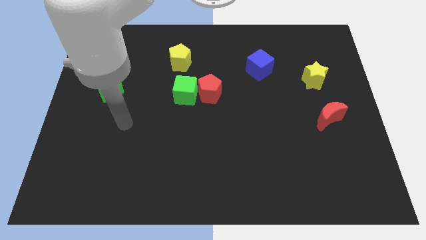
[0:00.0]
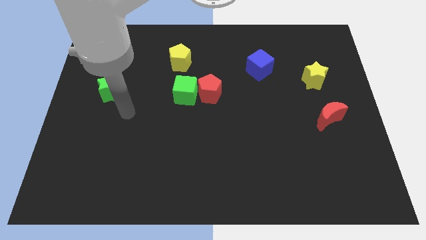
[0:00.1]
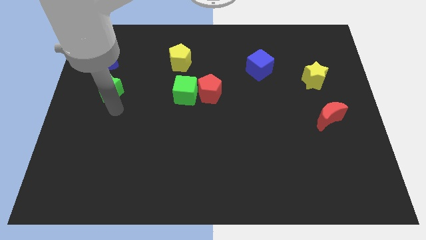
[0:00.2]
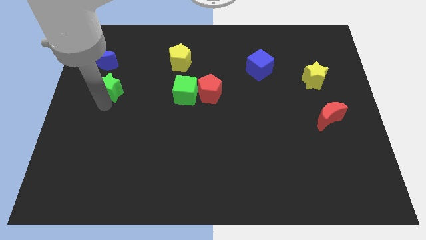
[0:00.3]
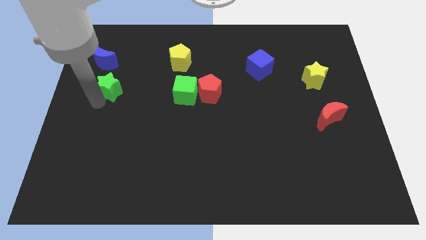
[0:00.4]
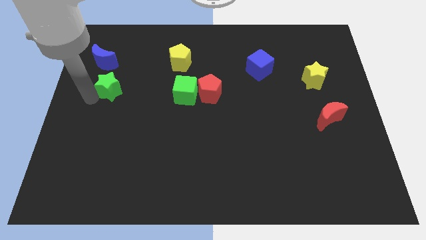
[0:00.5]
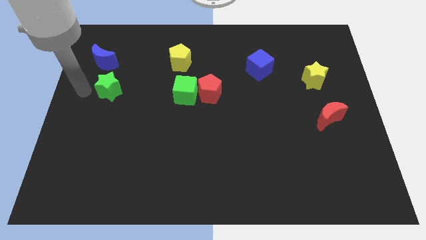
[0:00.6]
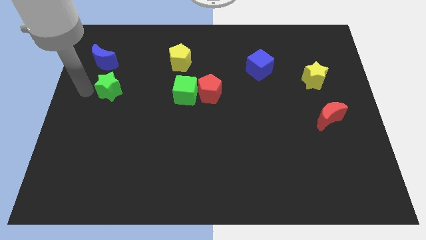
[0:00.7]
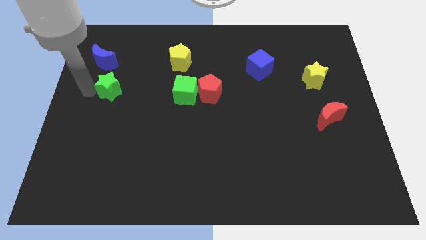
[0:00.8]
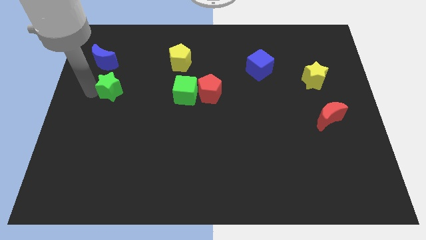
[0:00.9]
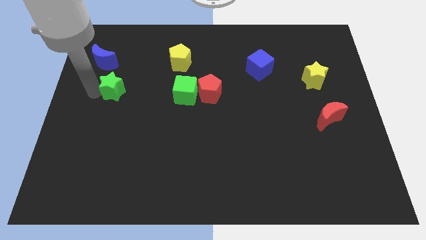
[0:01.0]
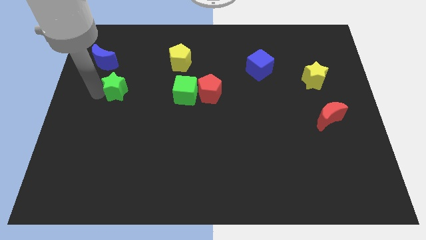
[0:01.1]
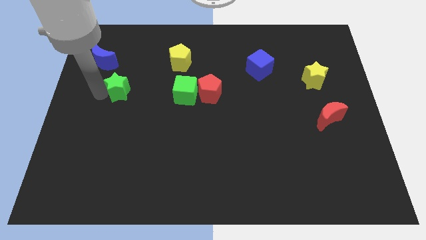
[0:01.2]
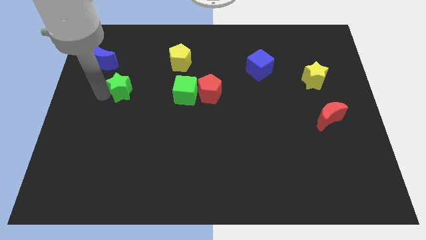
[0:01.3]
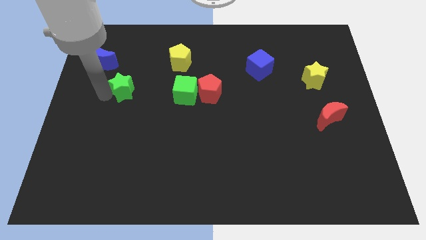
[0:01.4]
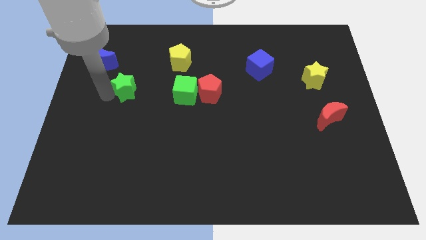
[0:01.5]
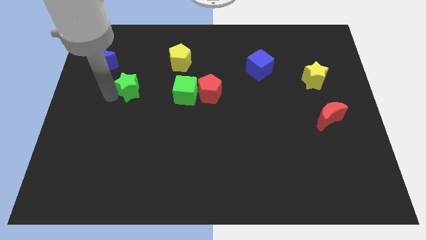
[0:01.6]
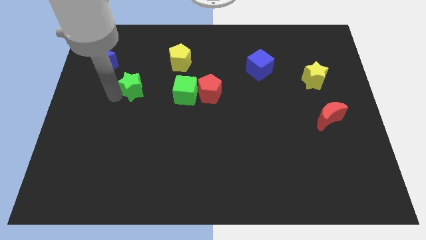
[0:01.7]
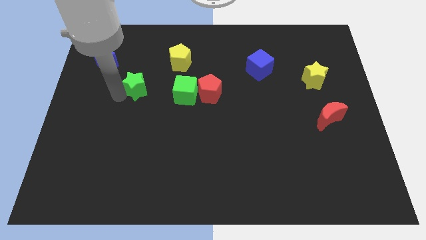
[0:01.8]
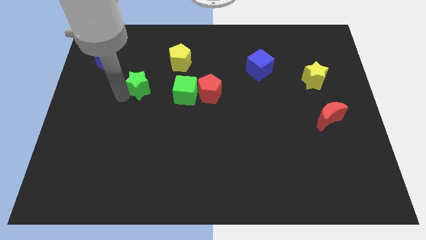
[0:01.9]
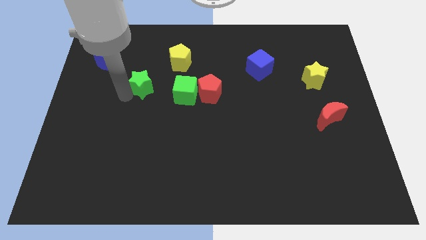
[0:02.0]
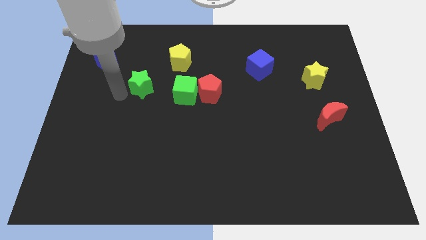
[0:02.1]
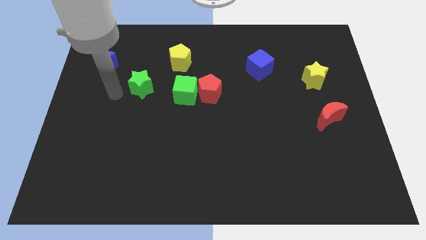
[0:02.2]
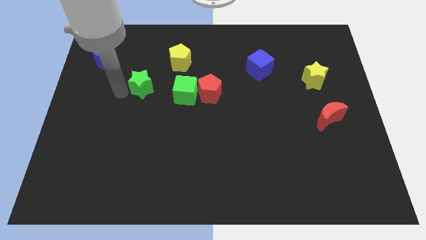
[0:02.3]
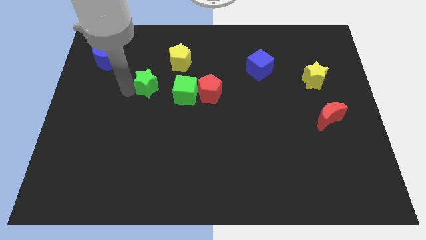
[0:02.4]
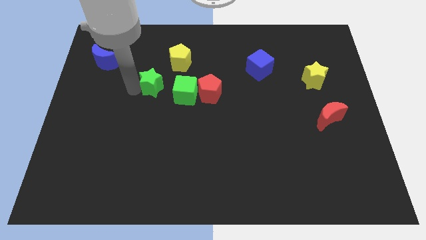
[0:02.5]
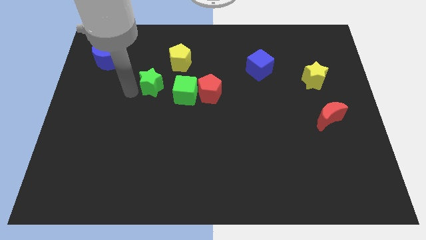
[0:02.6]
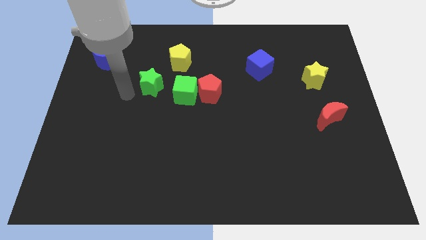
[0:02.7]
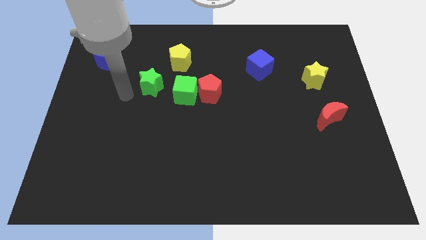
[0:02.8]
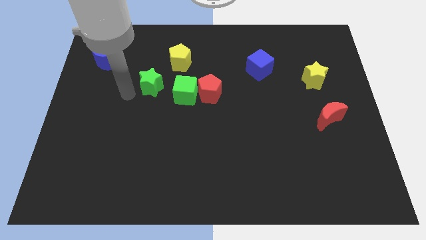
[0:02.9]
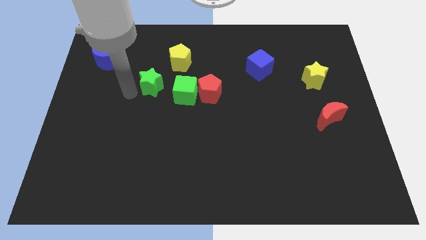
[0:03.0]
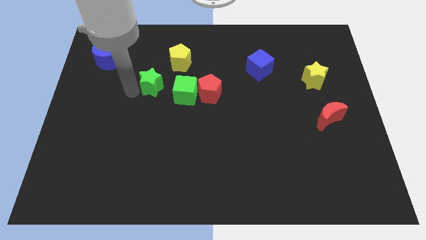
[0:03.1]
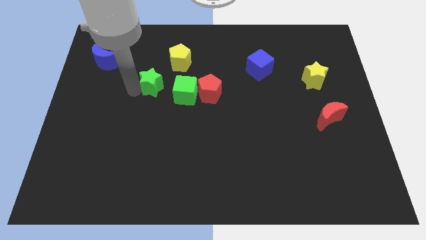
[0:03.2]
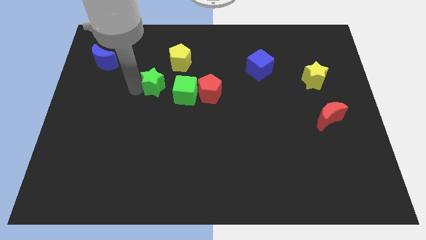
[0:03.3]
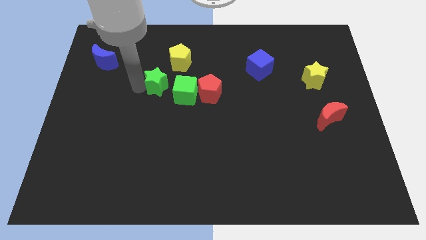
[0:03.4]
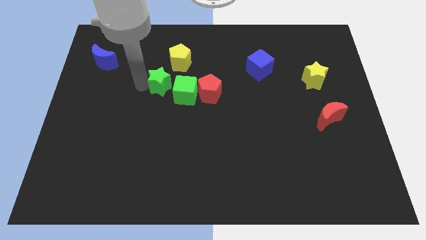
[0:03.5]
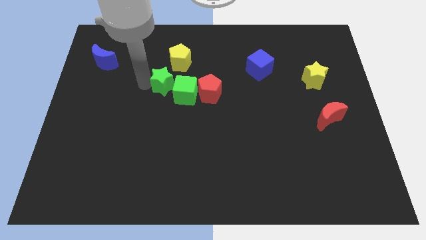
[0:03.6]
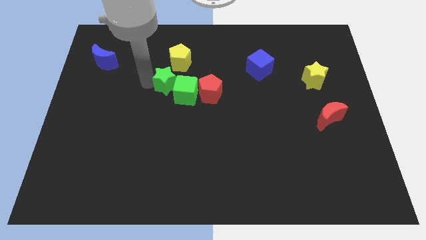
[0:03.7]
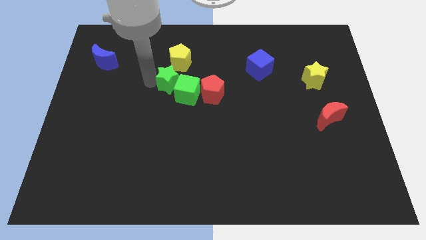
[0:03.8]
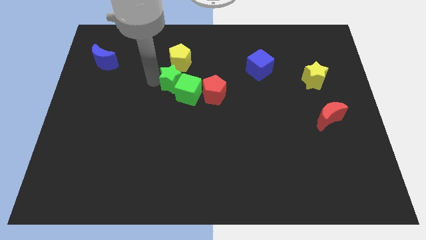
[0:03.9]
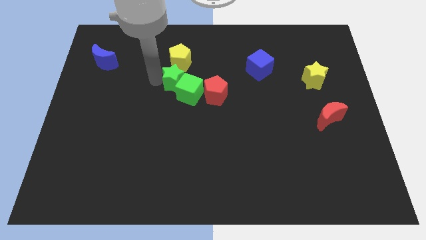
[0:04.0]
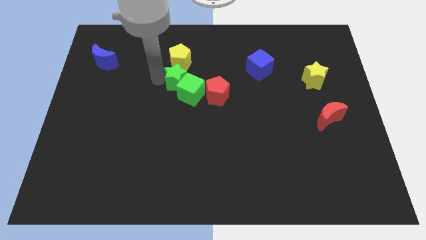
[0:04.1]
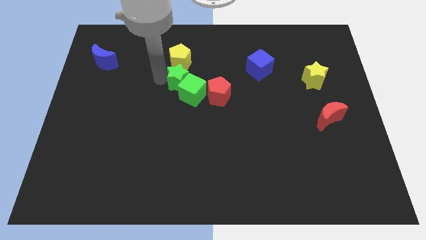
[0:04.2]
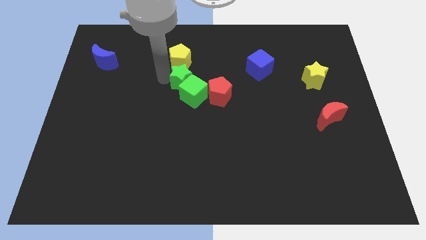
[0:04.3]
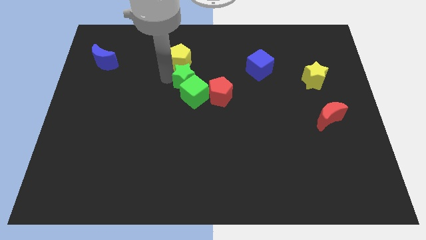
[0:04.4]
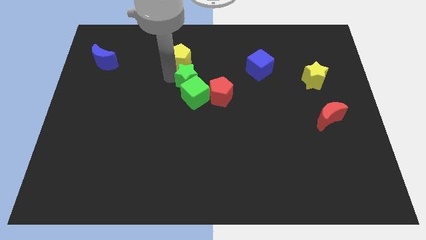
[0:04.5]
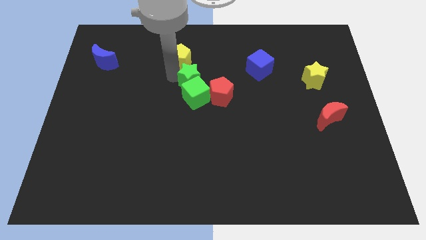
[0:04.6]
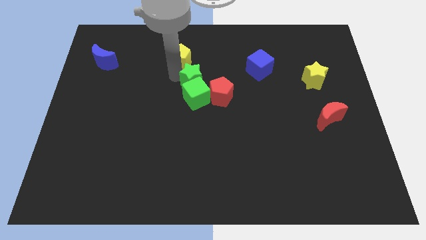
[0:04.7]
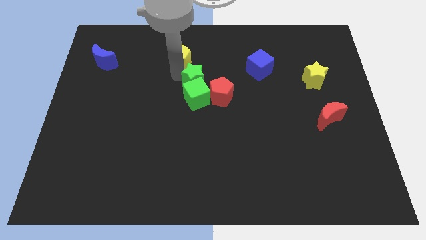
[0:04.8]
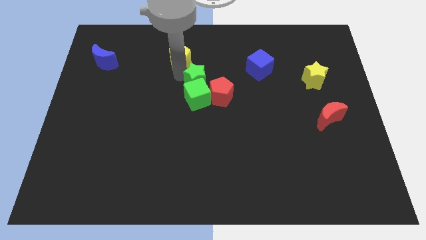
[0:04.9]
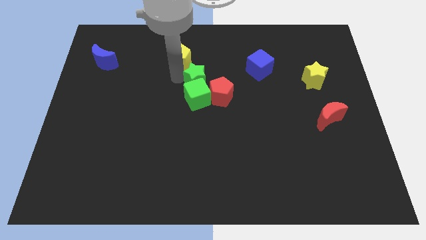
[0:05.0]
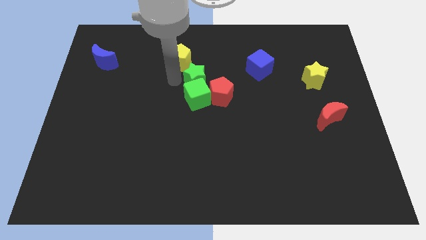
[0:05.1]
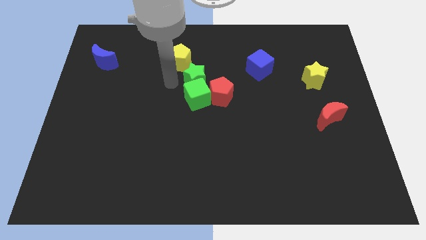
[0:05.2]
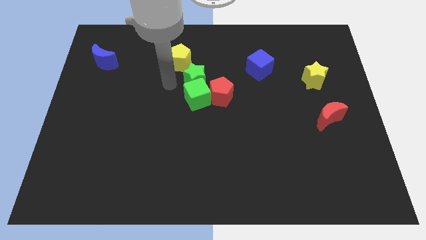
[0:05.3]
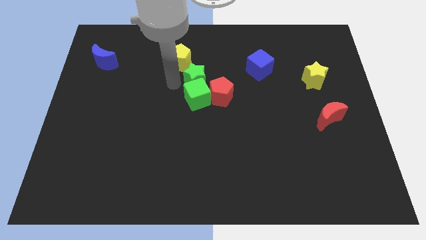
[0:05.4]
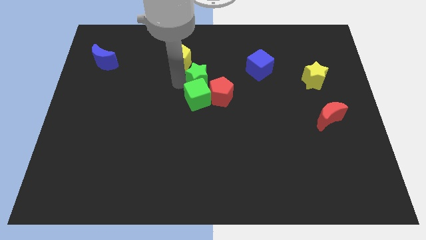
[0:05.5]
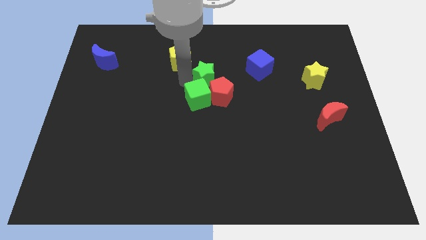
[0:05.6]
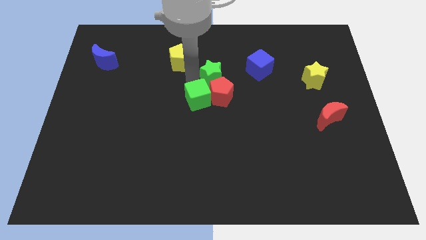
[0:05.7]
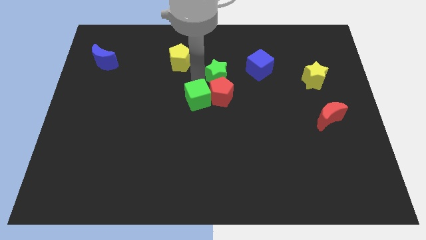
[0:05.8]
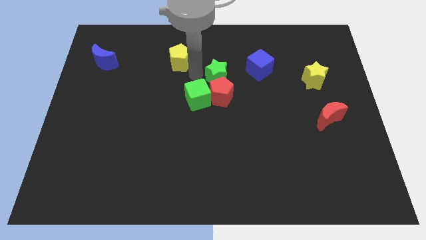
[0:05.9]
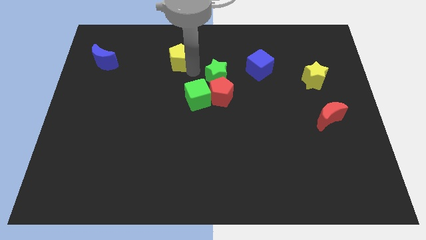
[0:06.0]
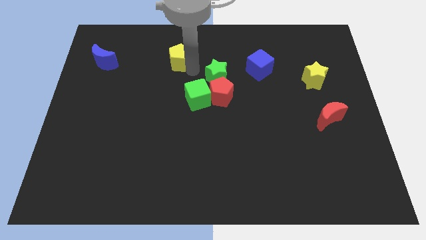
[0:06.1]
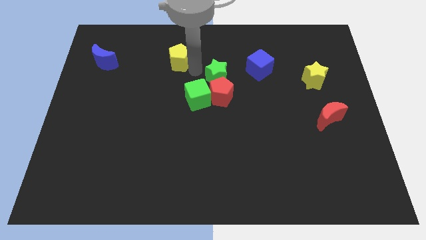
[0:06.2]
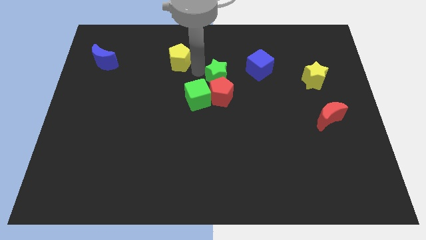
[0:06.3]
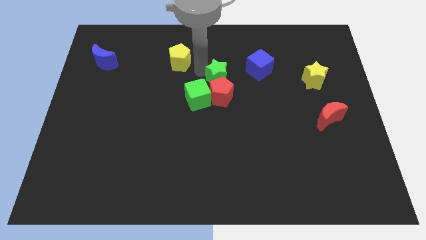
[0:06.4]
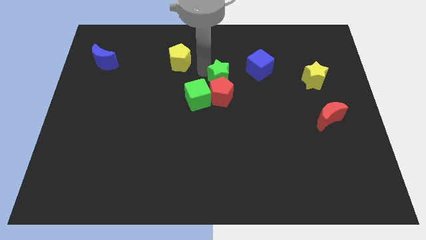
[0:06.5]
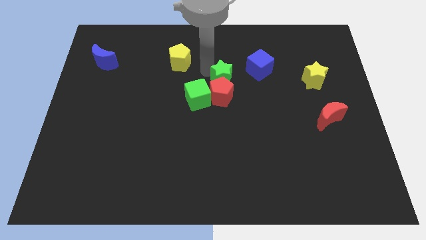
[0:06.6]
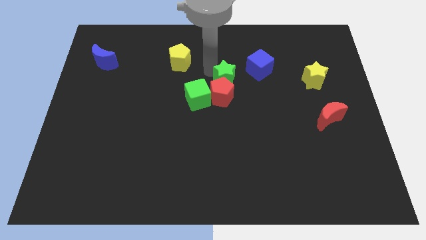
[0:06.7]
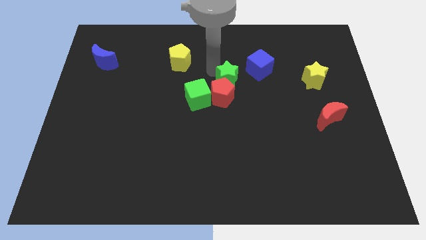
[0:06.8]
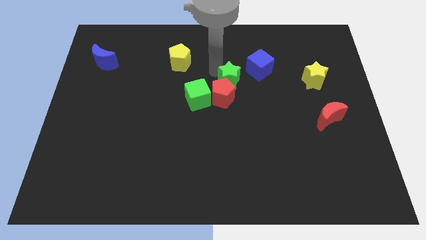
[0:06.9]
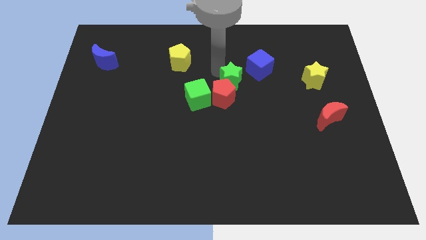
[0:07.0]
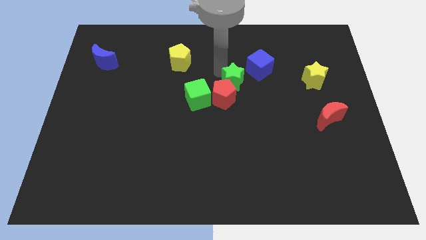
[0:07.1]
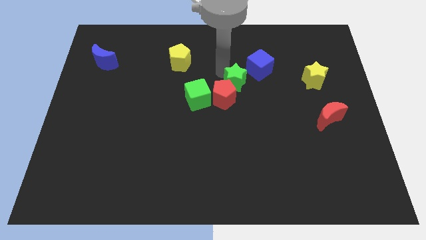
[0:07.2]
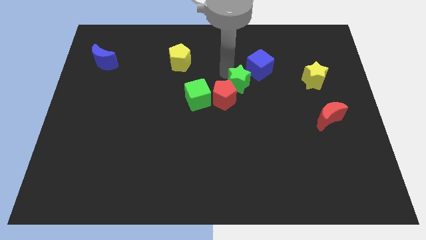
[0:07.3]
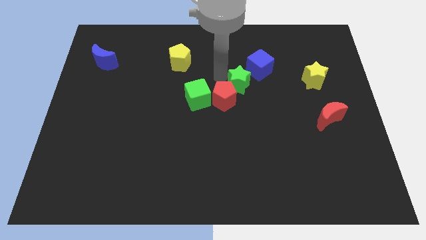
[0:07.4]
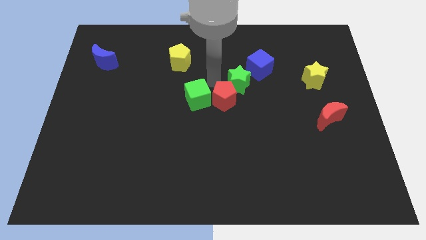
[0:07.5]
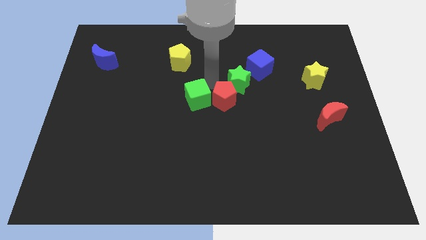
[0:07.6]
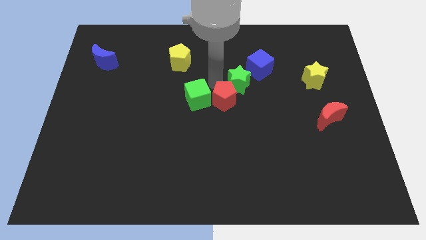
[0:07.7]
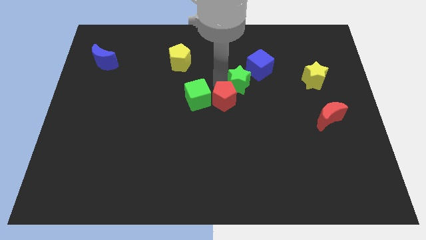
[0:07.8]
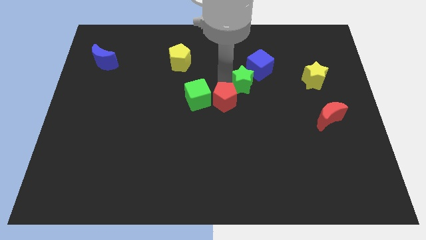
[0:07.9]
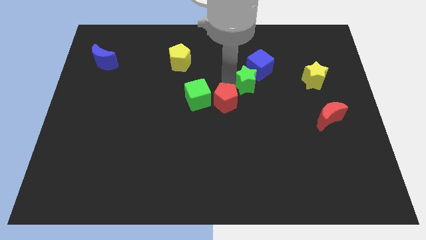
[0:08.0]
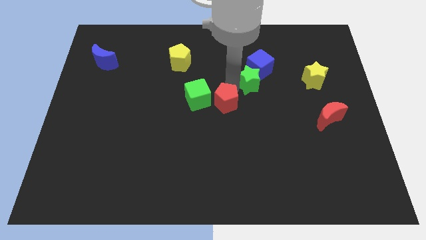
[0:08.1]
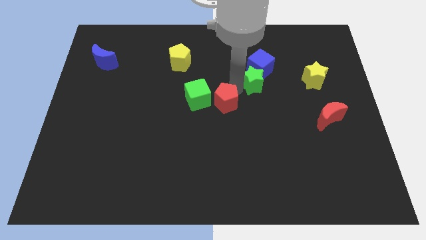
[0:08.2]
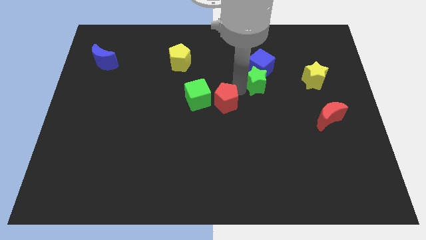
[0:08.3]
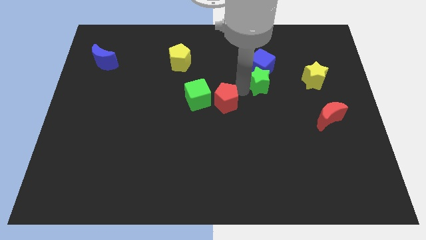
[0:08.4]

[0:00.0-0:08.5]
slide the green star diagonally down and to the right of the blue cube
